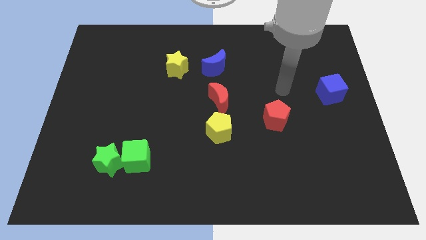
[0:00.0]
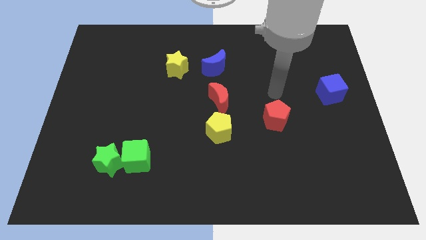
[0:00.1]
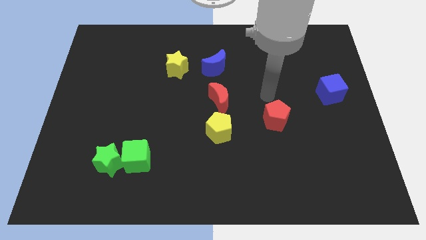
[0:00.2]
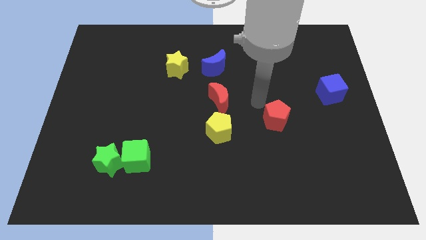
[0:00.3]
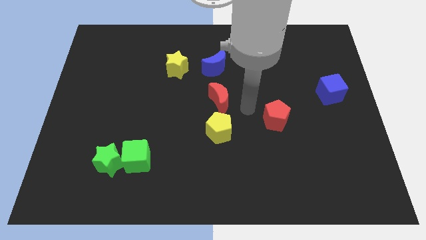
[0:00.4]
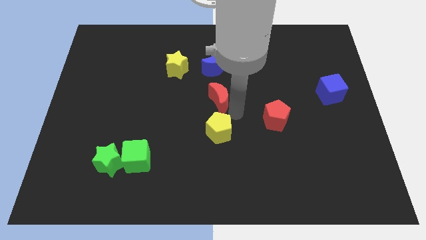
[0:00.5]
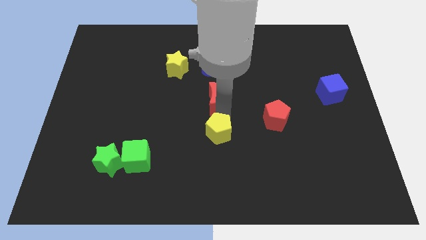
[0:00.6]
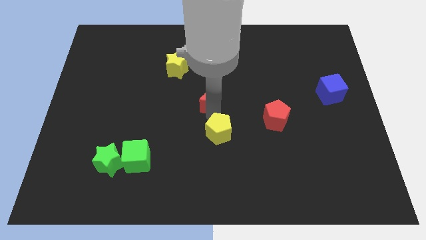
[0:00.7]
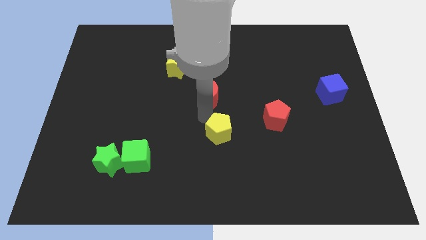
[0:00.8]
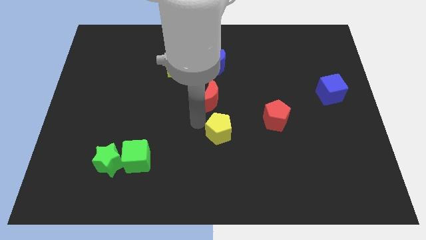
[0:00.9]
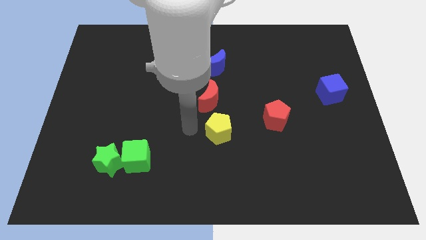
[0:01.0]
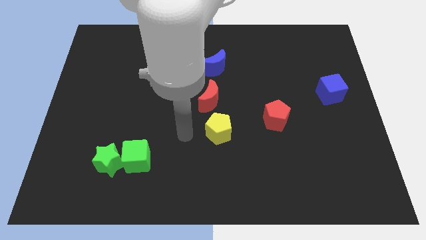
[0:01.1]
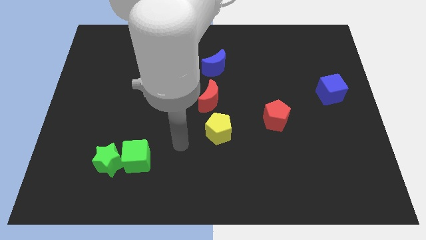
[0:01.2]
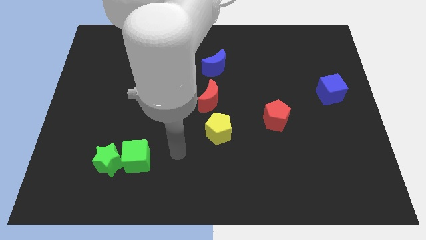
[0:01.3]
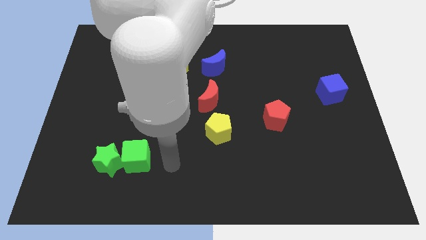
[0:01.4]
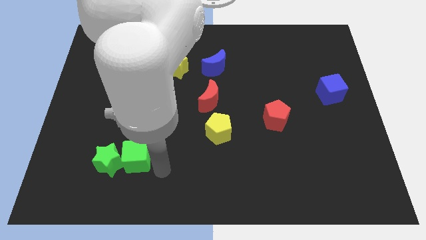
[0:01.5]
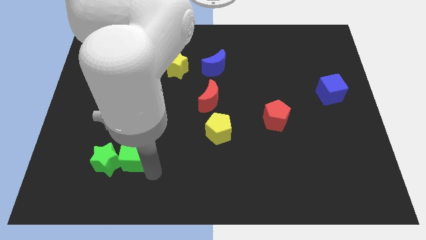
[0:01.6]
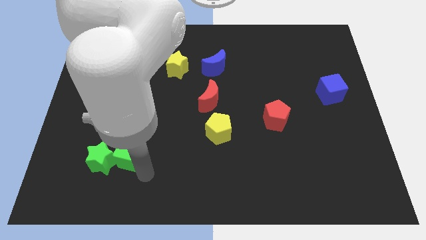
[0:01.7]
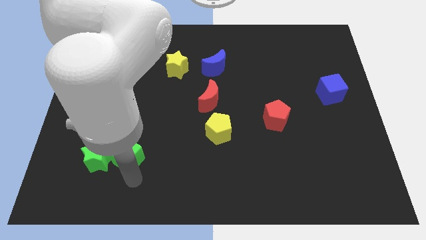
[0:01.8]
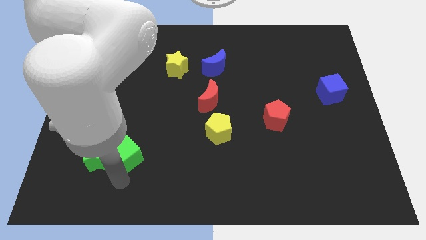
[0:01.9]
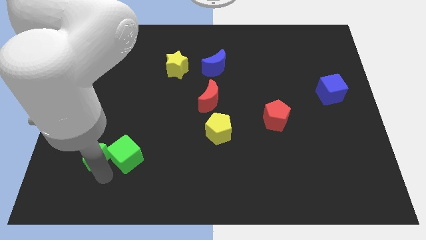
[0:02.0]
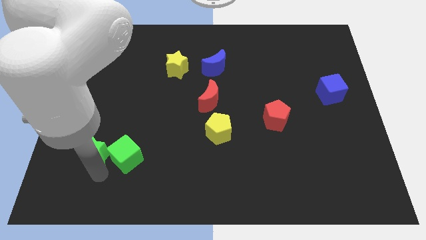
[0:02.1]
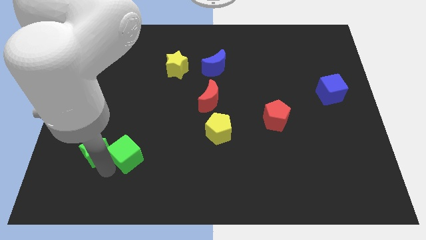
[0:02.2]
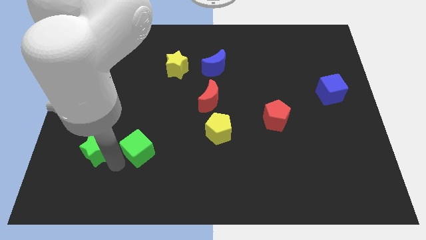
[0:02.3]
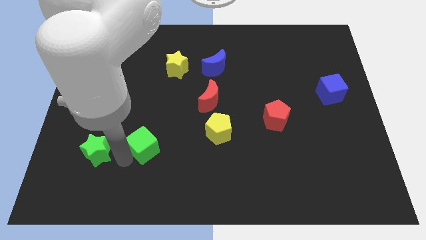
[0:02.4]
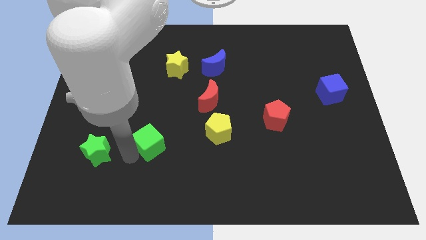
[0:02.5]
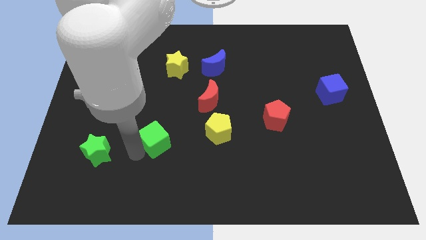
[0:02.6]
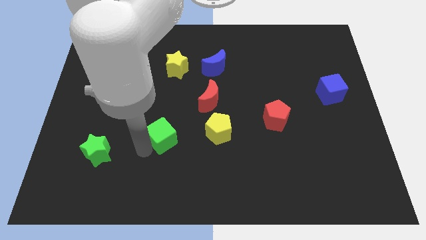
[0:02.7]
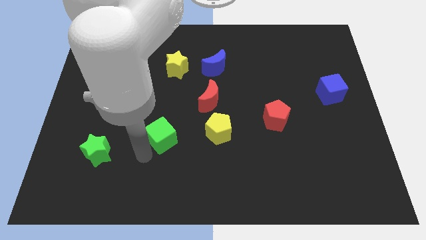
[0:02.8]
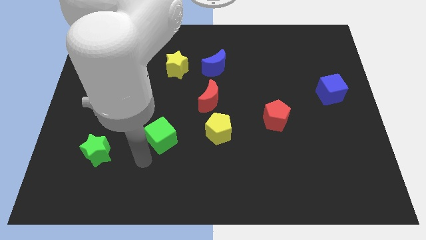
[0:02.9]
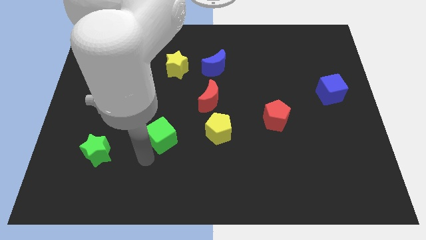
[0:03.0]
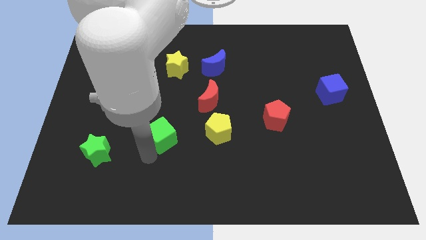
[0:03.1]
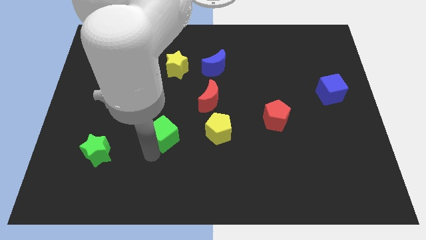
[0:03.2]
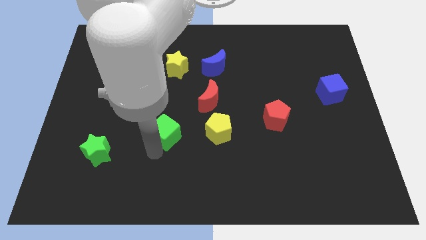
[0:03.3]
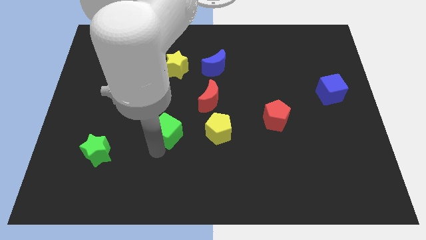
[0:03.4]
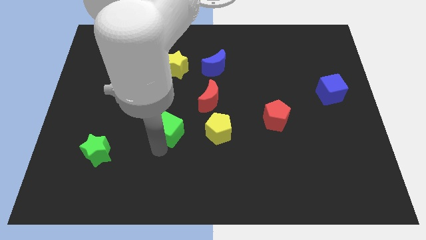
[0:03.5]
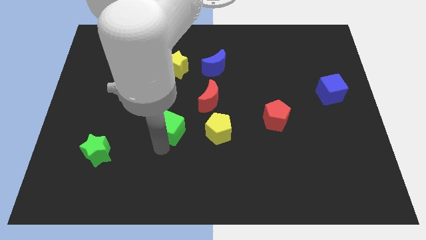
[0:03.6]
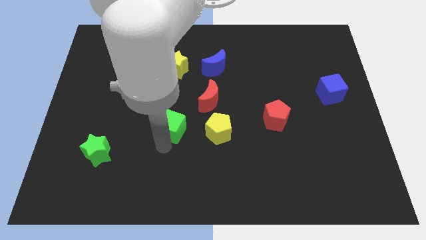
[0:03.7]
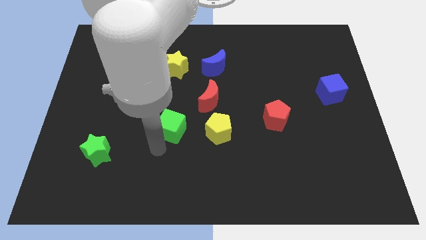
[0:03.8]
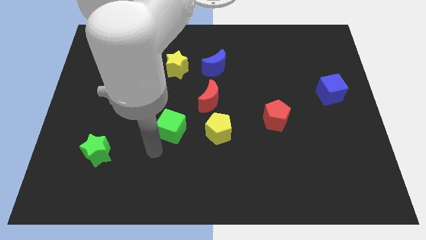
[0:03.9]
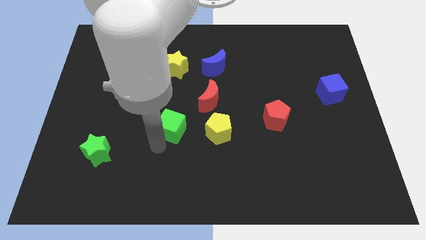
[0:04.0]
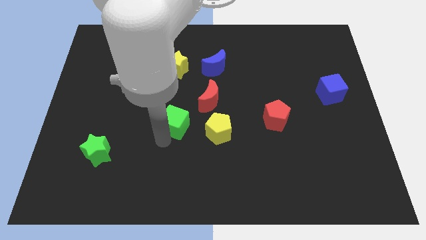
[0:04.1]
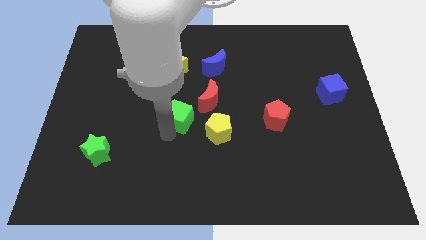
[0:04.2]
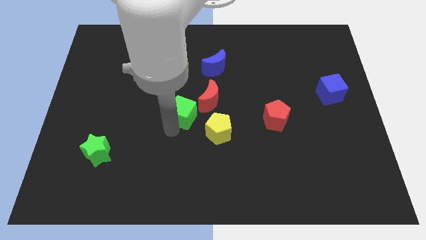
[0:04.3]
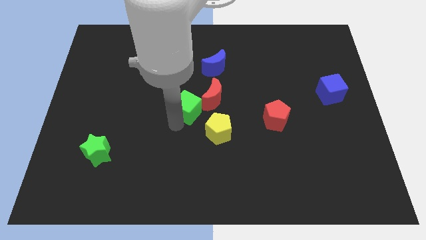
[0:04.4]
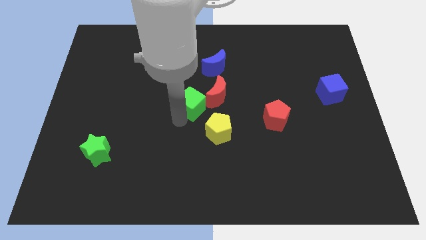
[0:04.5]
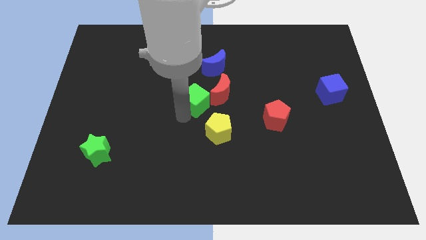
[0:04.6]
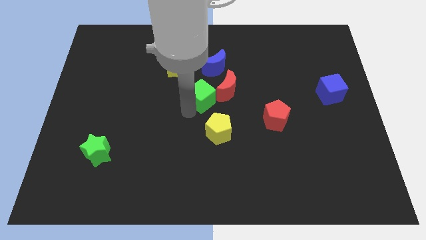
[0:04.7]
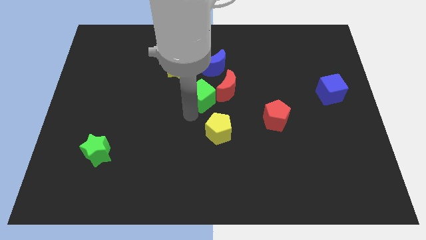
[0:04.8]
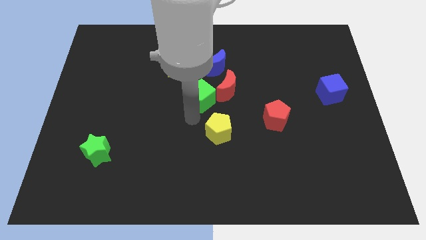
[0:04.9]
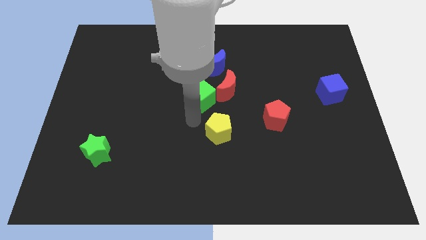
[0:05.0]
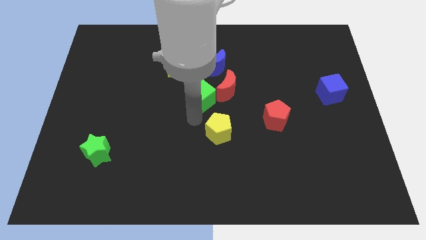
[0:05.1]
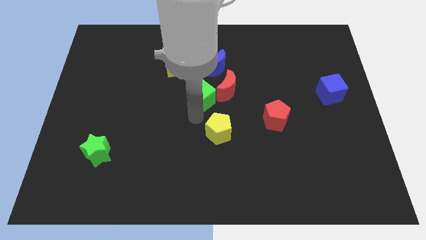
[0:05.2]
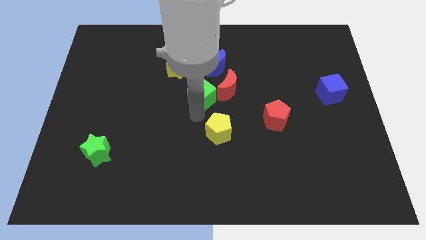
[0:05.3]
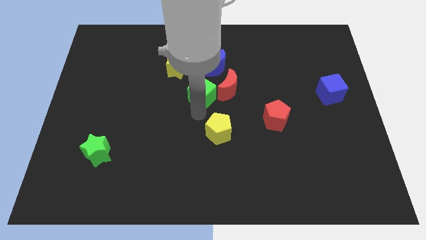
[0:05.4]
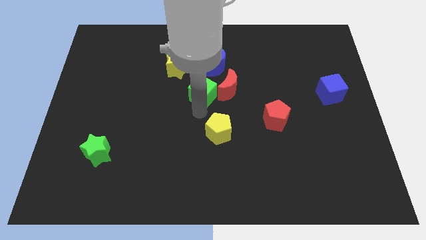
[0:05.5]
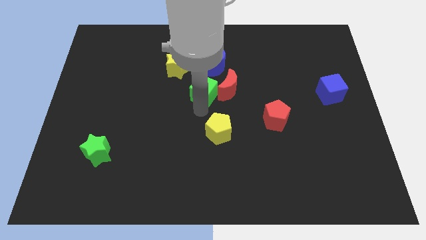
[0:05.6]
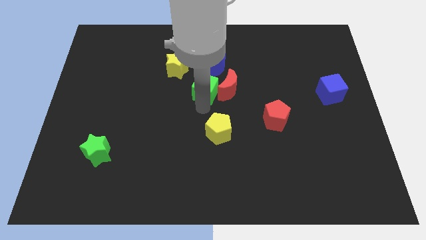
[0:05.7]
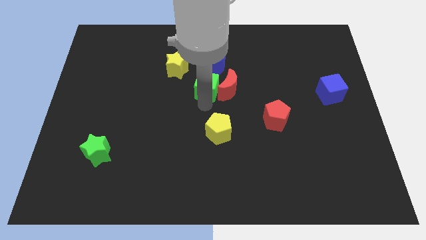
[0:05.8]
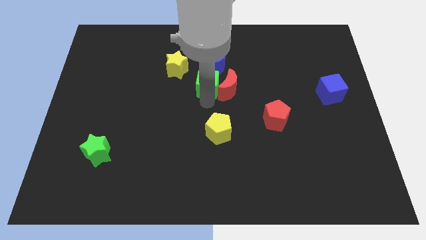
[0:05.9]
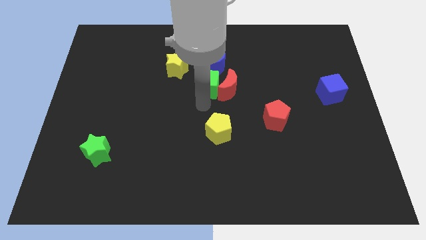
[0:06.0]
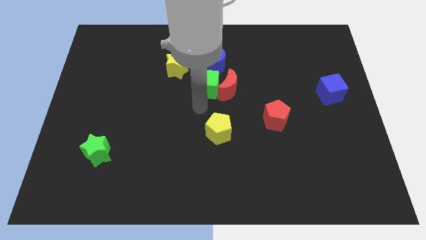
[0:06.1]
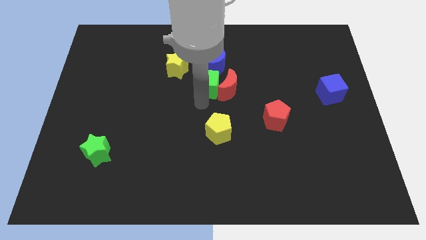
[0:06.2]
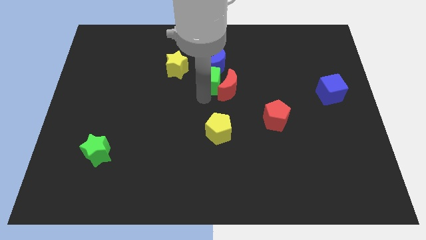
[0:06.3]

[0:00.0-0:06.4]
slide the green cube next to the blue moon
